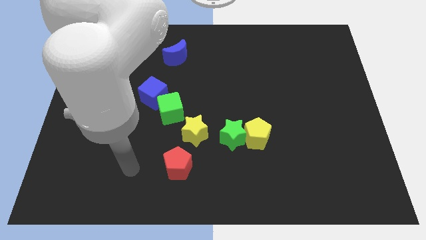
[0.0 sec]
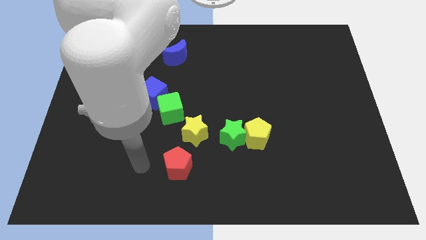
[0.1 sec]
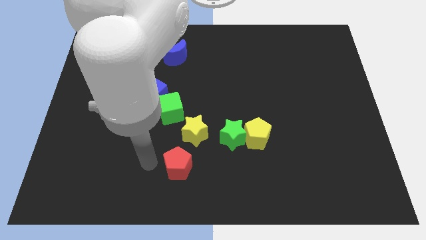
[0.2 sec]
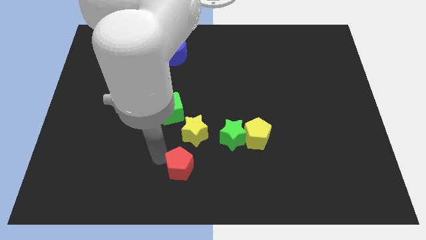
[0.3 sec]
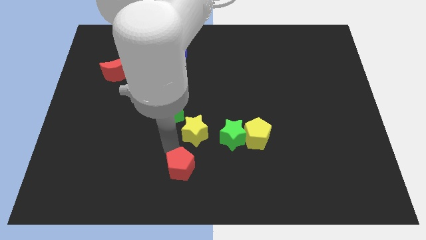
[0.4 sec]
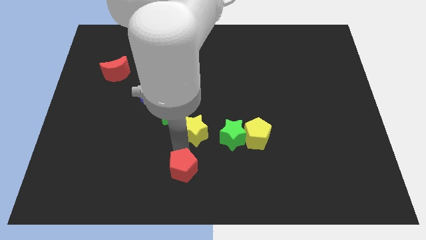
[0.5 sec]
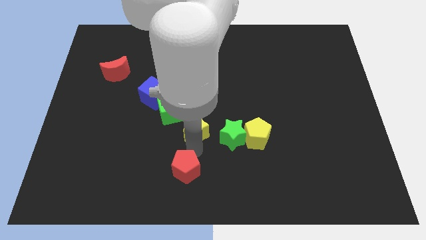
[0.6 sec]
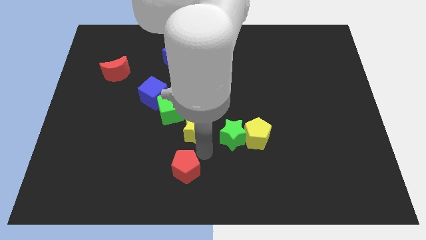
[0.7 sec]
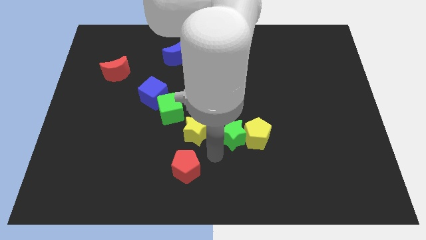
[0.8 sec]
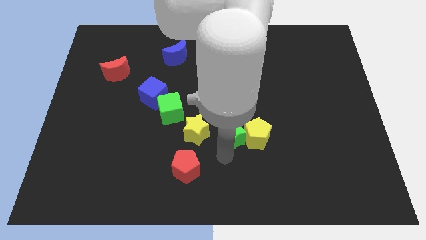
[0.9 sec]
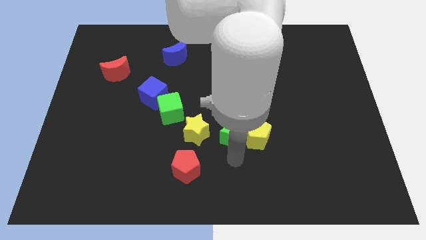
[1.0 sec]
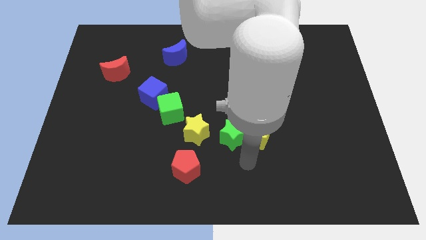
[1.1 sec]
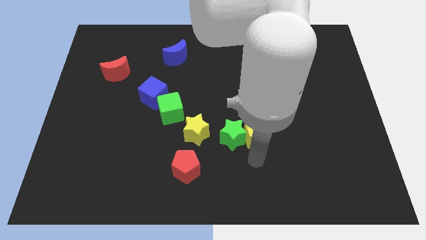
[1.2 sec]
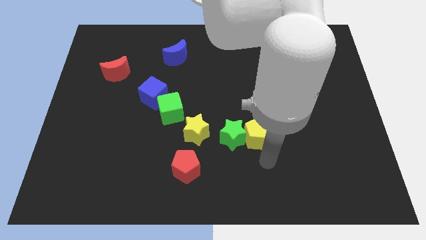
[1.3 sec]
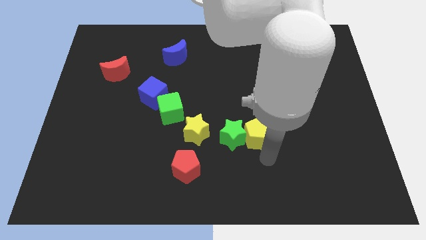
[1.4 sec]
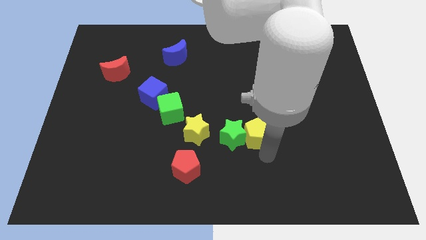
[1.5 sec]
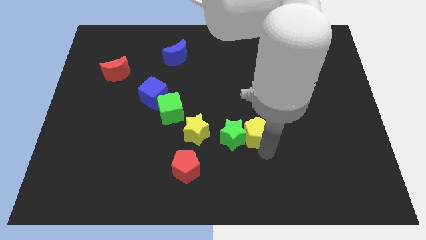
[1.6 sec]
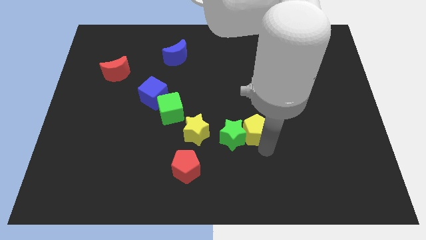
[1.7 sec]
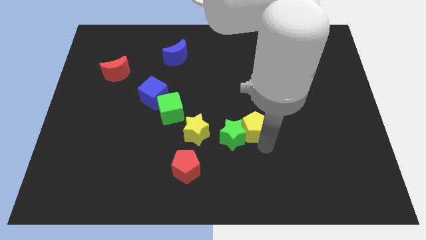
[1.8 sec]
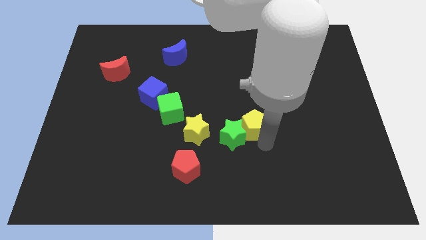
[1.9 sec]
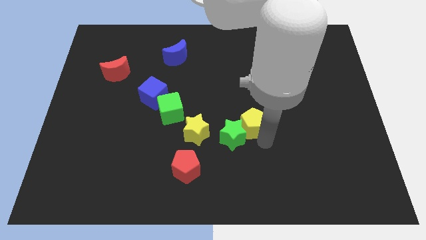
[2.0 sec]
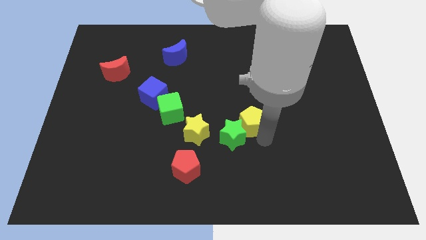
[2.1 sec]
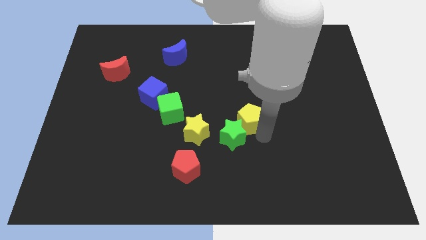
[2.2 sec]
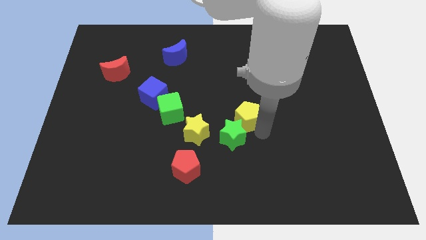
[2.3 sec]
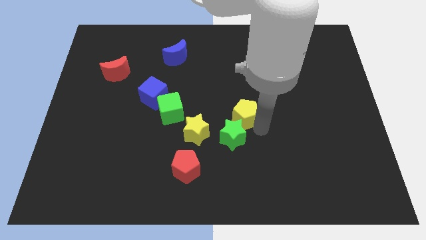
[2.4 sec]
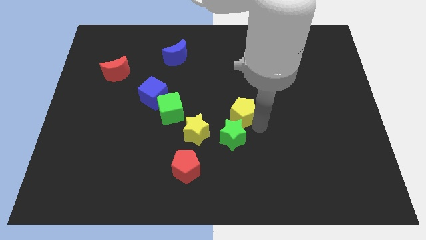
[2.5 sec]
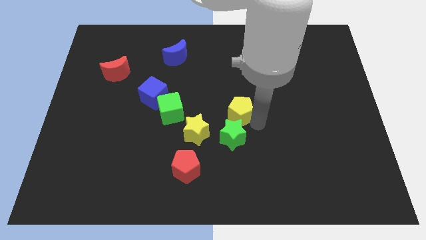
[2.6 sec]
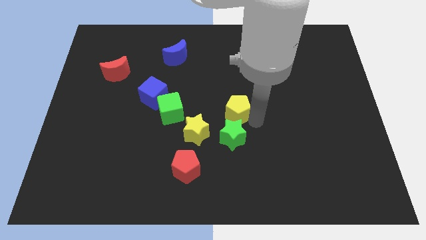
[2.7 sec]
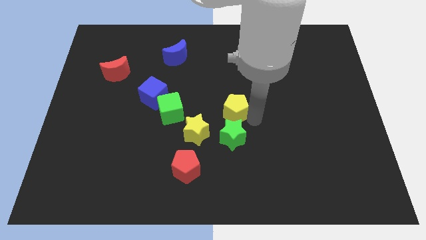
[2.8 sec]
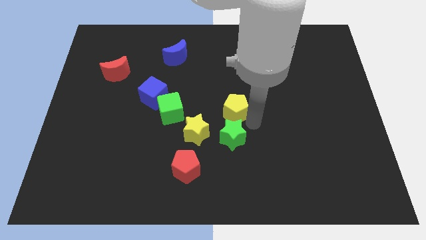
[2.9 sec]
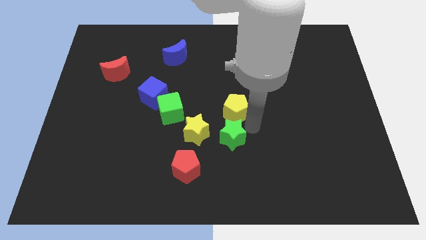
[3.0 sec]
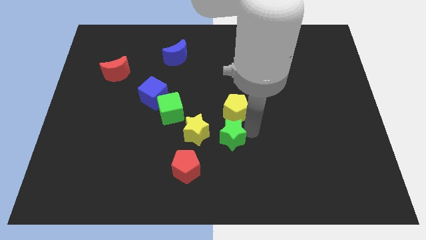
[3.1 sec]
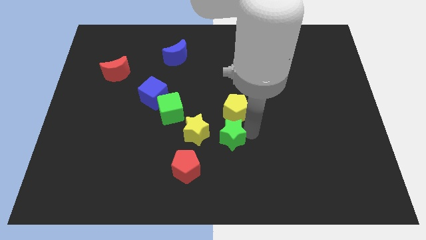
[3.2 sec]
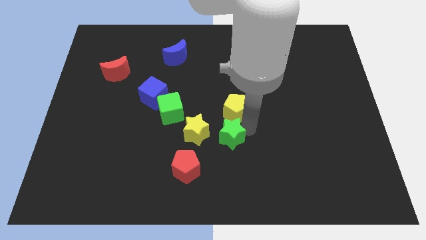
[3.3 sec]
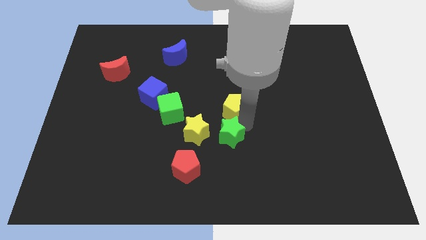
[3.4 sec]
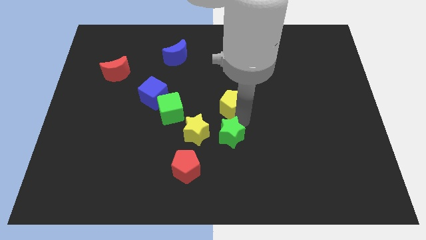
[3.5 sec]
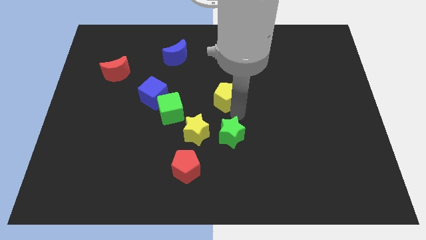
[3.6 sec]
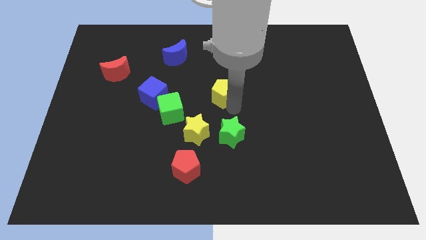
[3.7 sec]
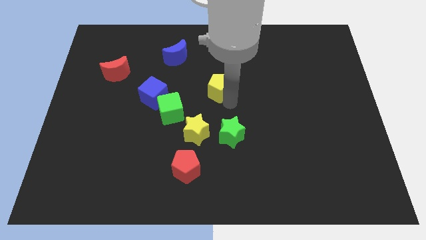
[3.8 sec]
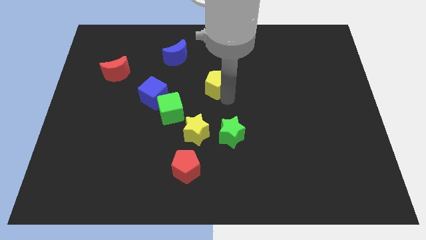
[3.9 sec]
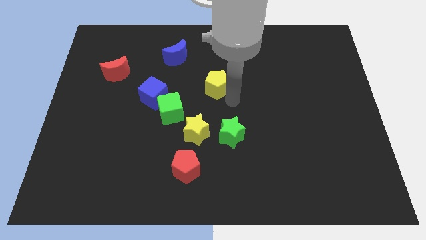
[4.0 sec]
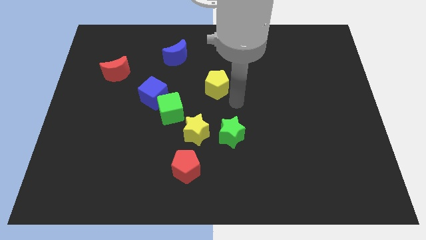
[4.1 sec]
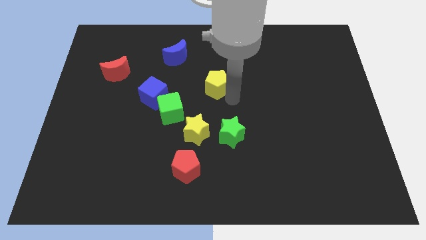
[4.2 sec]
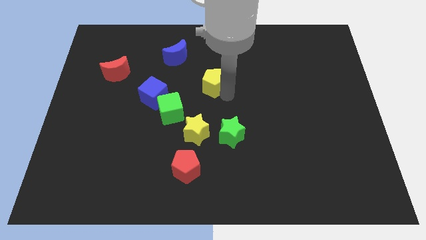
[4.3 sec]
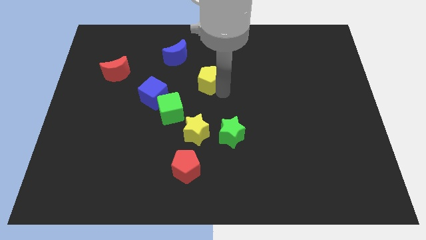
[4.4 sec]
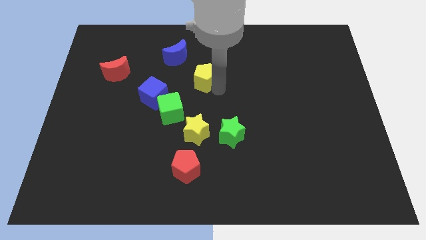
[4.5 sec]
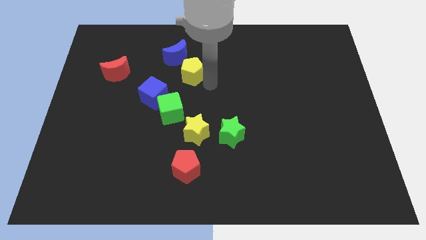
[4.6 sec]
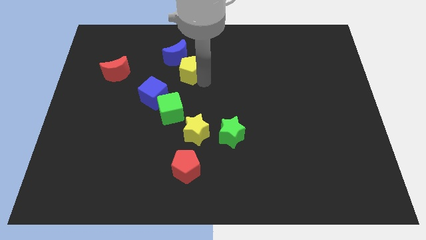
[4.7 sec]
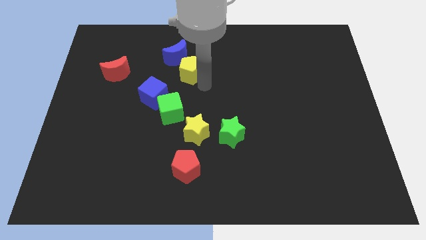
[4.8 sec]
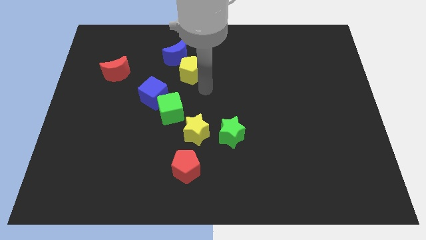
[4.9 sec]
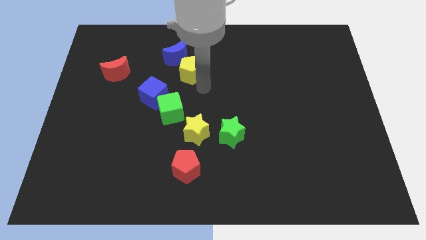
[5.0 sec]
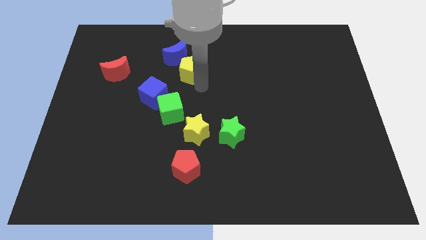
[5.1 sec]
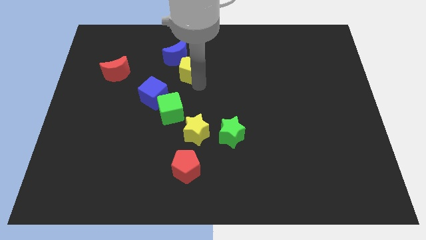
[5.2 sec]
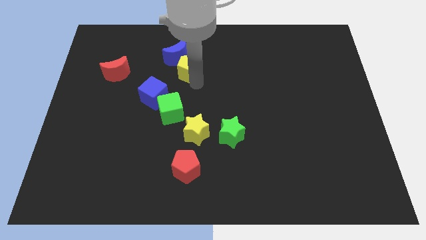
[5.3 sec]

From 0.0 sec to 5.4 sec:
put the yellow pentagon close to the blue moon

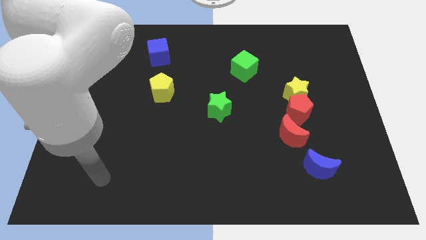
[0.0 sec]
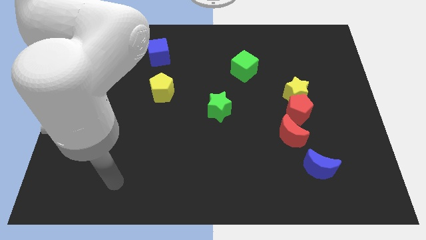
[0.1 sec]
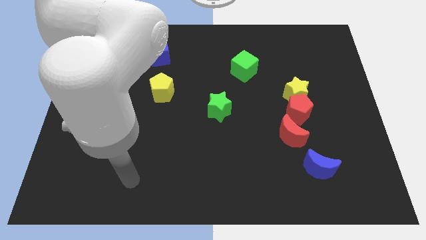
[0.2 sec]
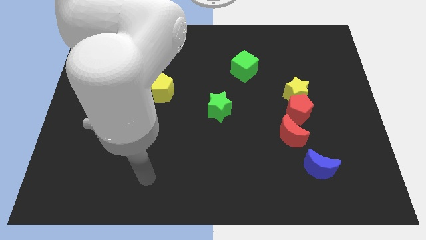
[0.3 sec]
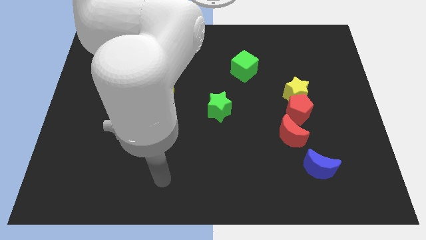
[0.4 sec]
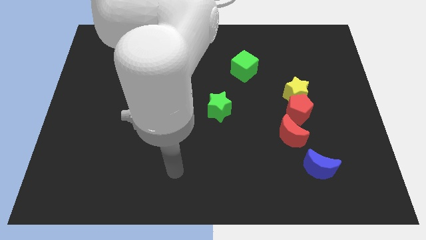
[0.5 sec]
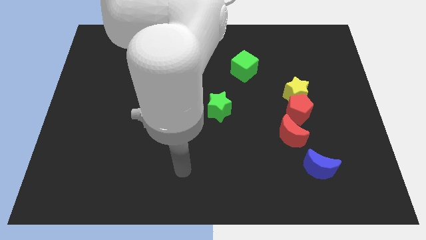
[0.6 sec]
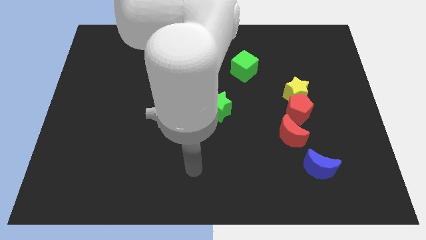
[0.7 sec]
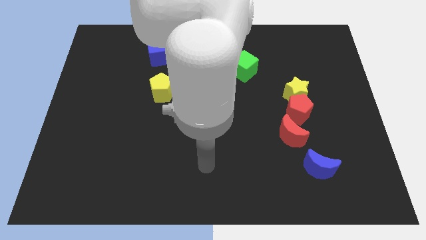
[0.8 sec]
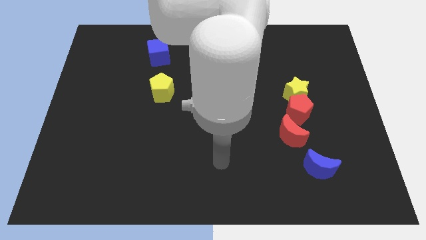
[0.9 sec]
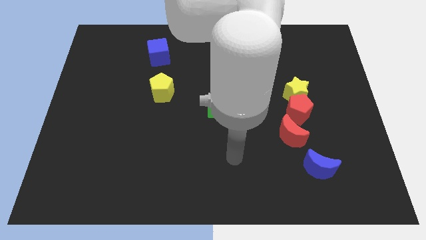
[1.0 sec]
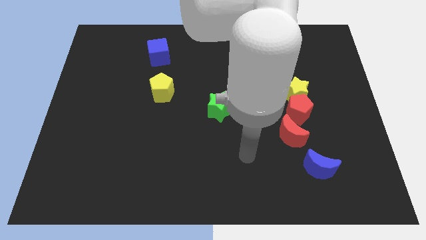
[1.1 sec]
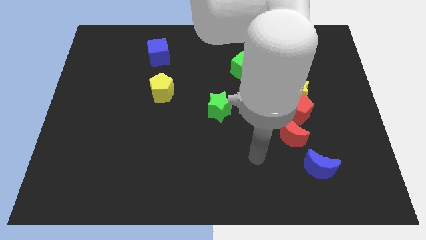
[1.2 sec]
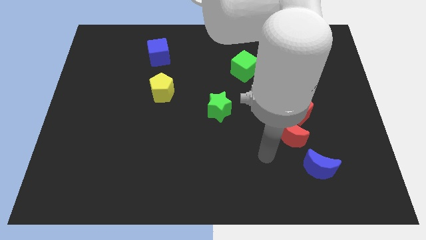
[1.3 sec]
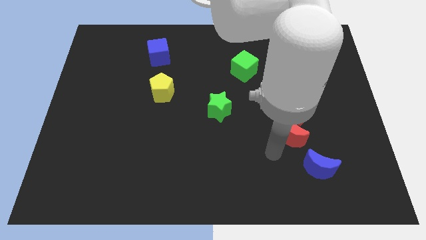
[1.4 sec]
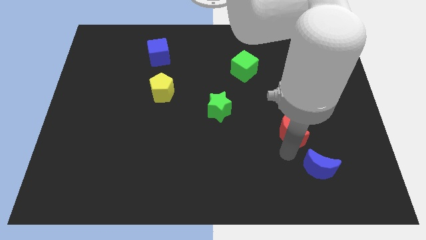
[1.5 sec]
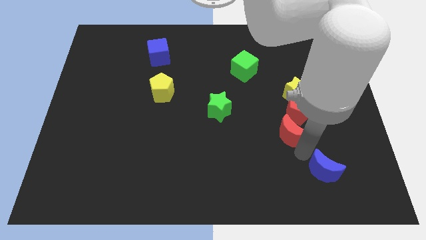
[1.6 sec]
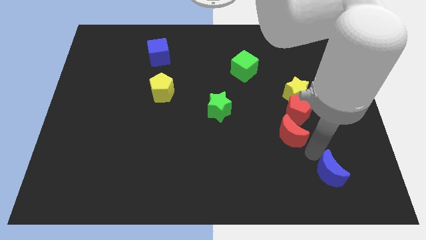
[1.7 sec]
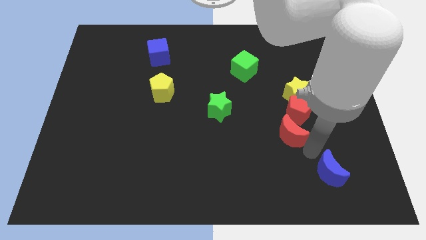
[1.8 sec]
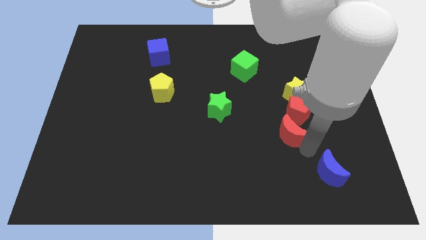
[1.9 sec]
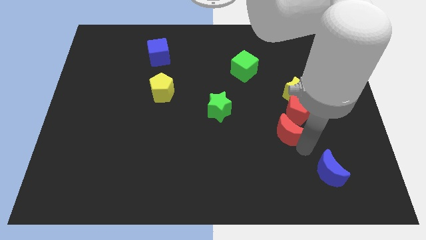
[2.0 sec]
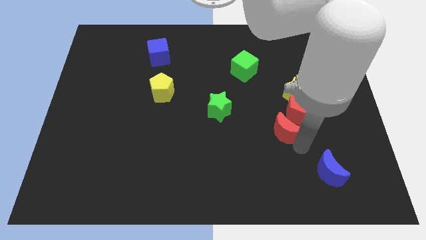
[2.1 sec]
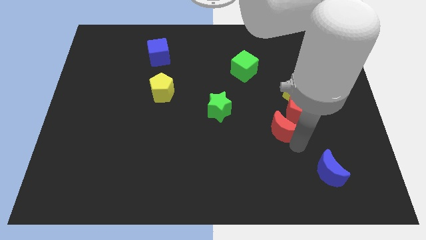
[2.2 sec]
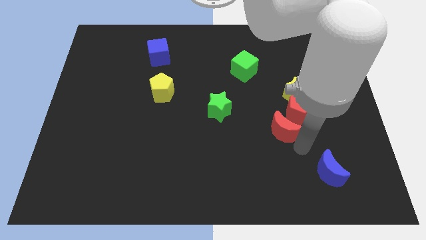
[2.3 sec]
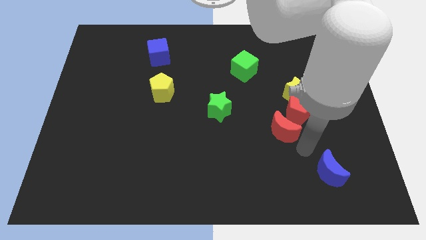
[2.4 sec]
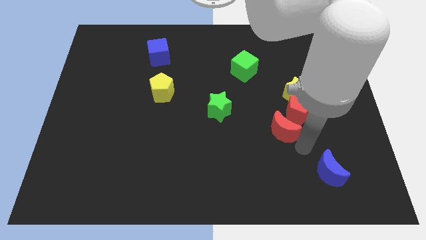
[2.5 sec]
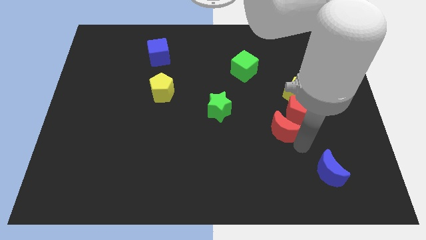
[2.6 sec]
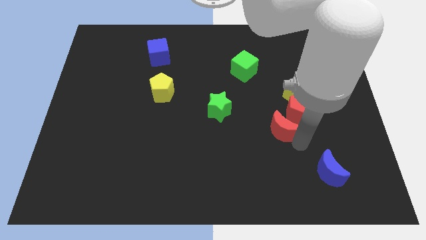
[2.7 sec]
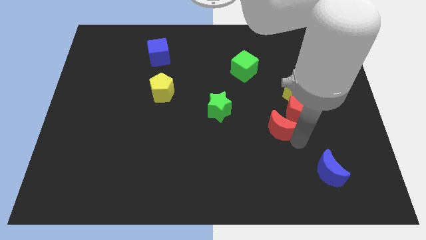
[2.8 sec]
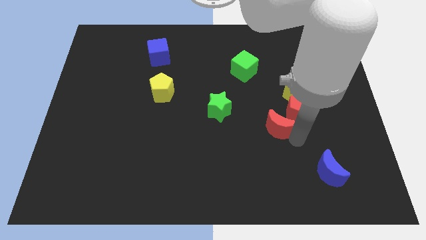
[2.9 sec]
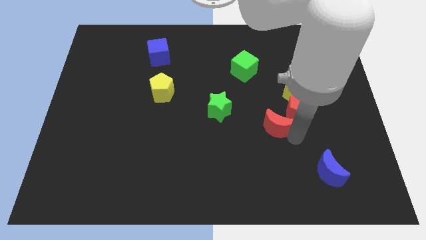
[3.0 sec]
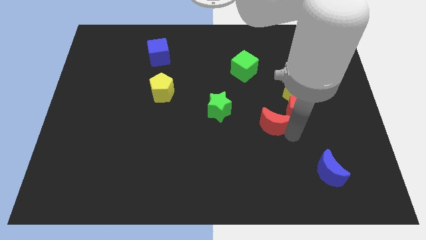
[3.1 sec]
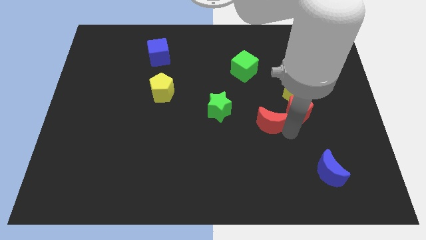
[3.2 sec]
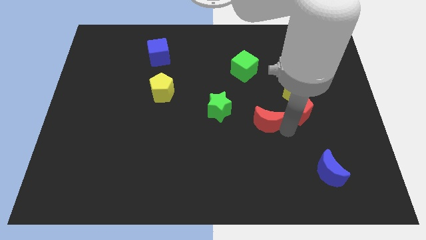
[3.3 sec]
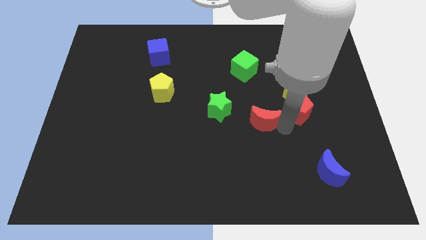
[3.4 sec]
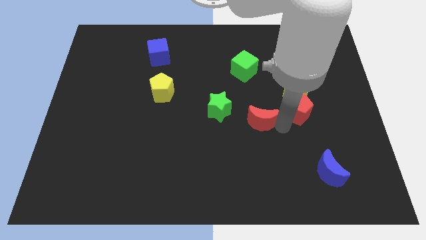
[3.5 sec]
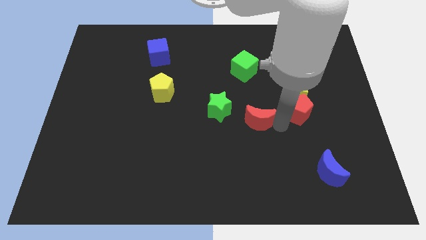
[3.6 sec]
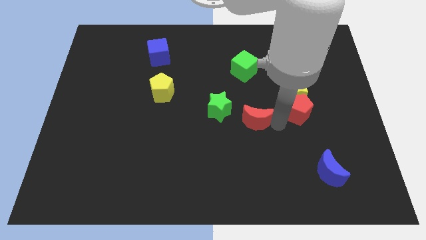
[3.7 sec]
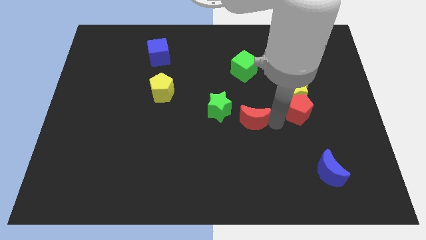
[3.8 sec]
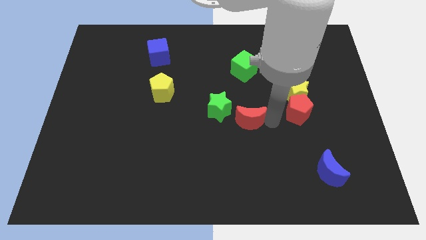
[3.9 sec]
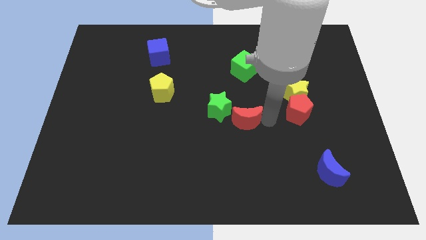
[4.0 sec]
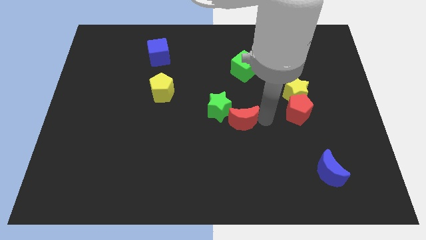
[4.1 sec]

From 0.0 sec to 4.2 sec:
slide the red moon towards the green star
